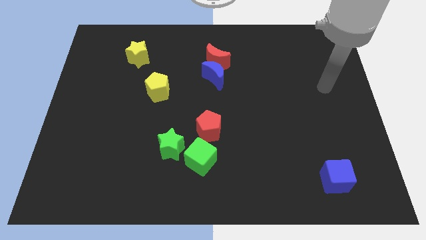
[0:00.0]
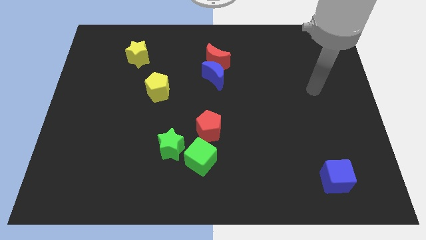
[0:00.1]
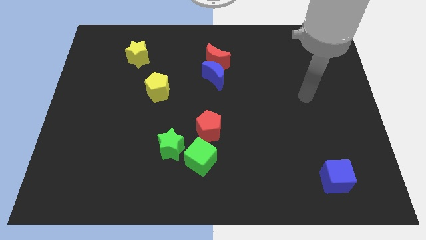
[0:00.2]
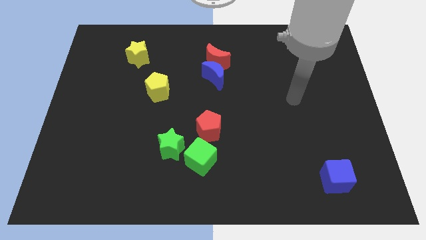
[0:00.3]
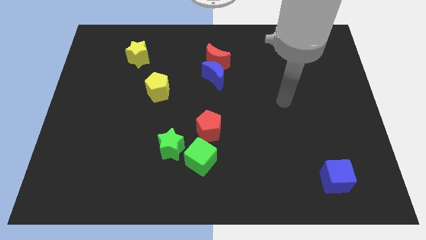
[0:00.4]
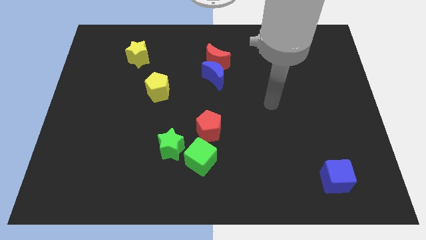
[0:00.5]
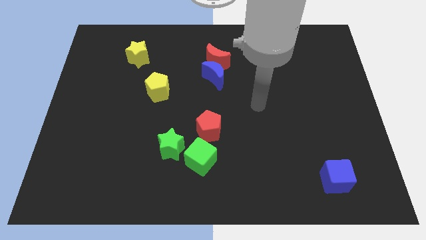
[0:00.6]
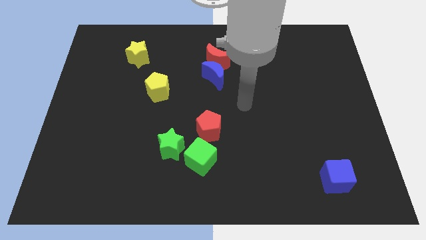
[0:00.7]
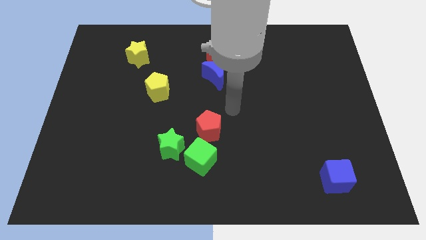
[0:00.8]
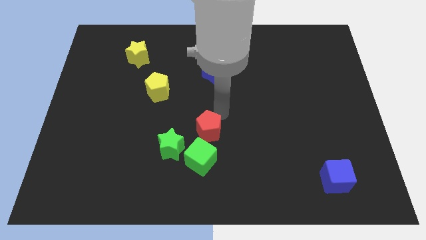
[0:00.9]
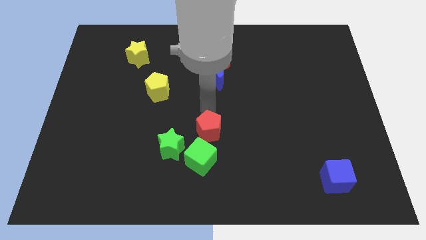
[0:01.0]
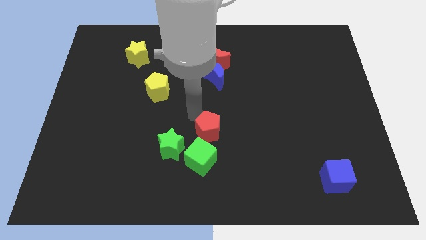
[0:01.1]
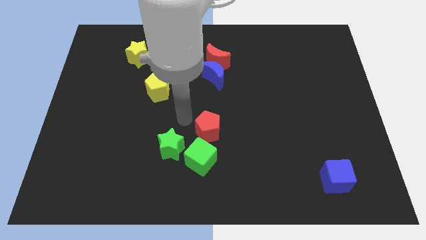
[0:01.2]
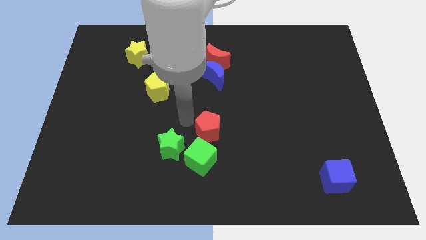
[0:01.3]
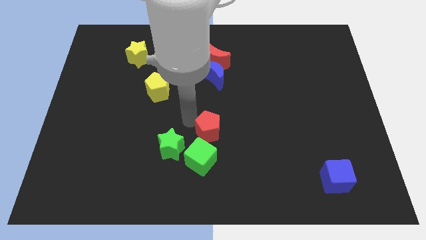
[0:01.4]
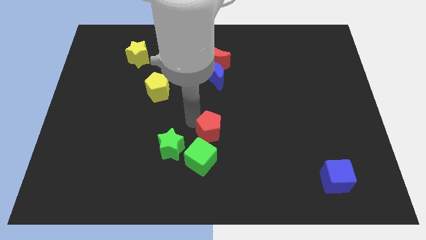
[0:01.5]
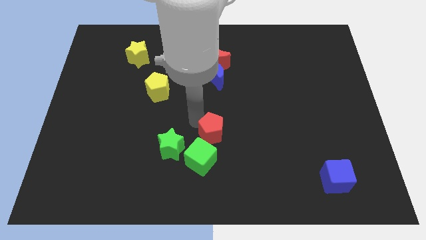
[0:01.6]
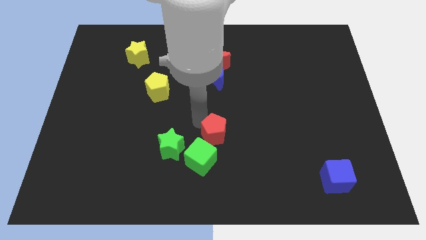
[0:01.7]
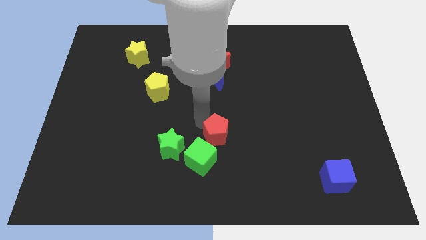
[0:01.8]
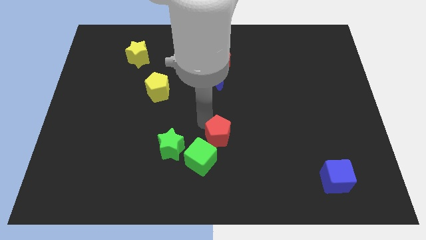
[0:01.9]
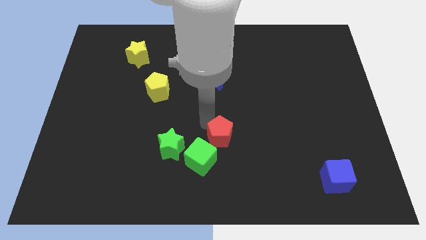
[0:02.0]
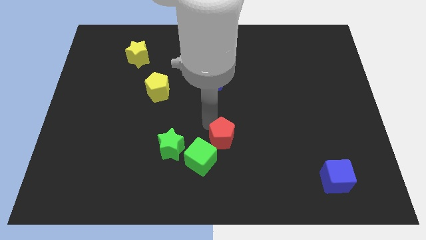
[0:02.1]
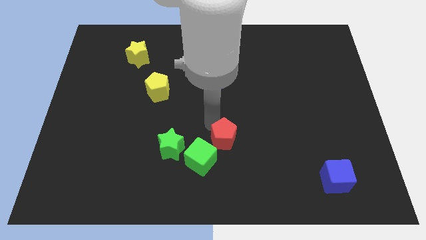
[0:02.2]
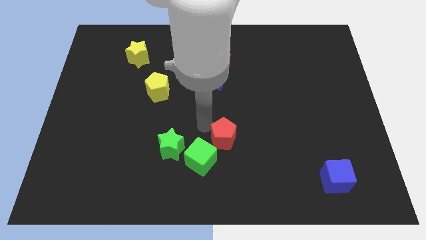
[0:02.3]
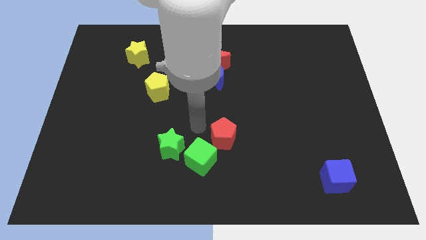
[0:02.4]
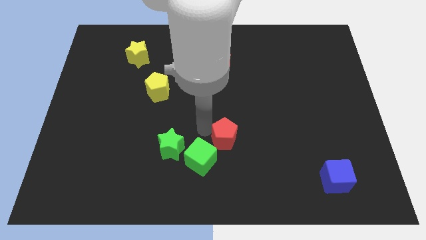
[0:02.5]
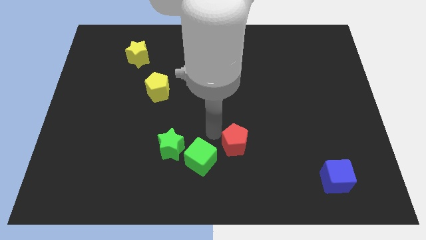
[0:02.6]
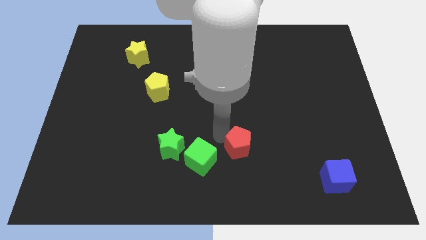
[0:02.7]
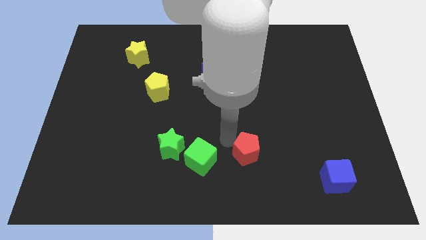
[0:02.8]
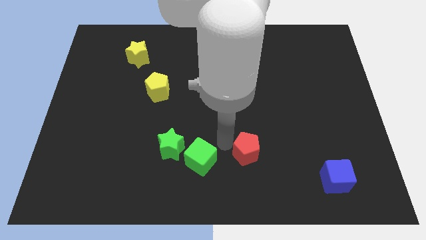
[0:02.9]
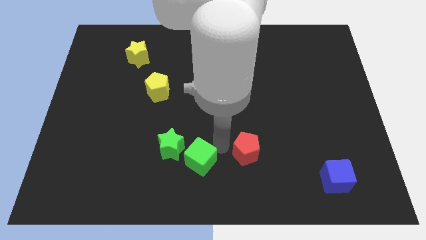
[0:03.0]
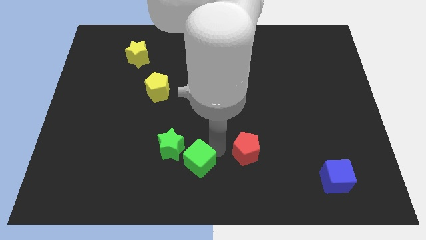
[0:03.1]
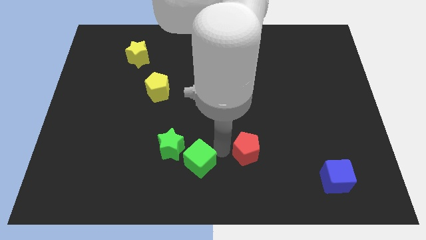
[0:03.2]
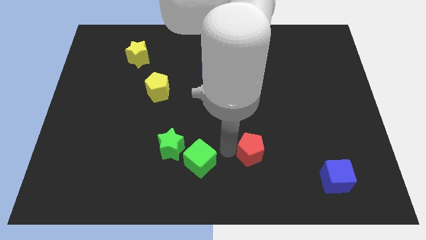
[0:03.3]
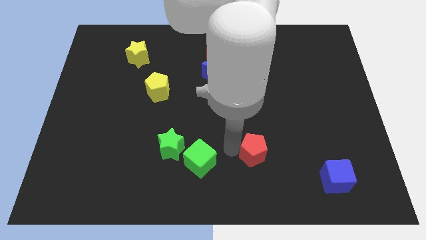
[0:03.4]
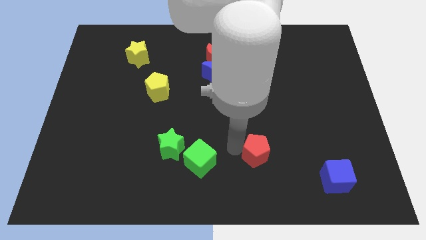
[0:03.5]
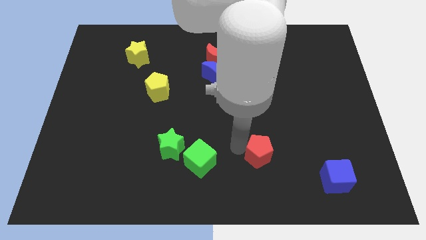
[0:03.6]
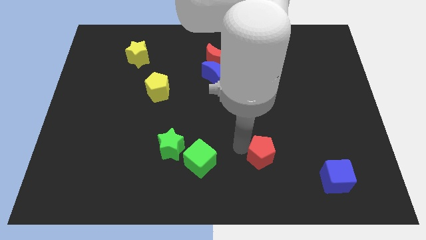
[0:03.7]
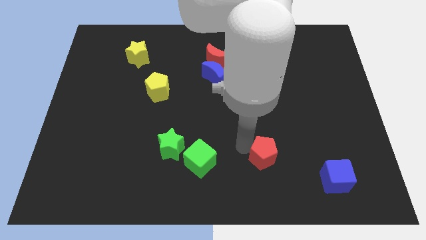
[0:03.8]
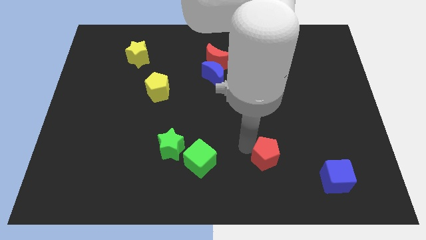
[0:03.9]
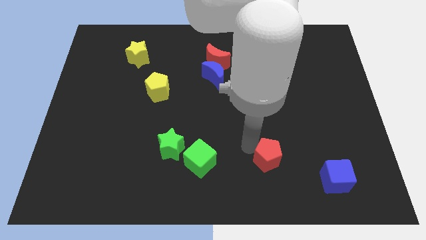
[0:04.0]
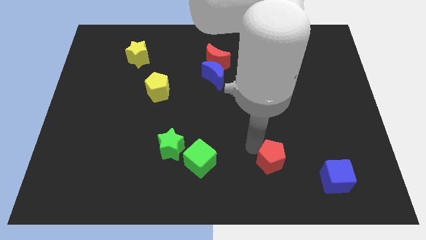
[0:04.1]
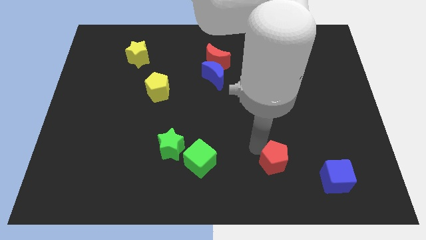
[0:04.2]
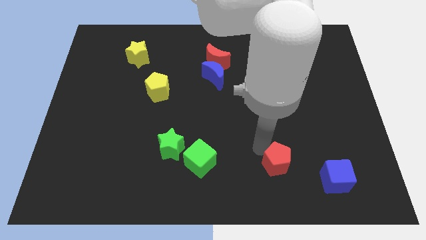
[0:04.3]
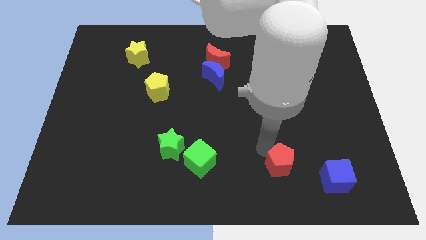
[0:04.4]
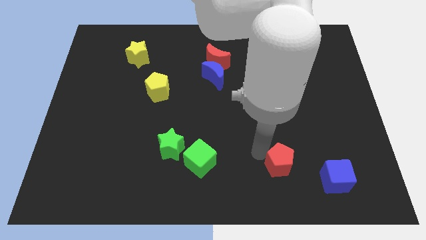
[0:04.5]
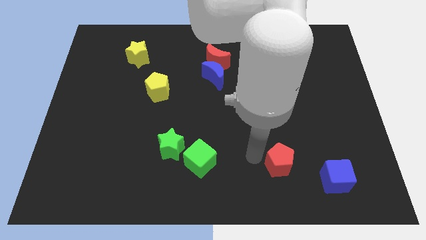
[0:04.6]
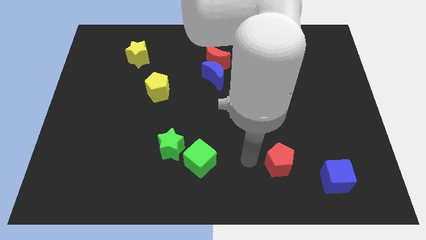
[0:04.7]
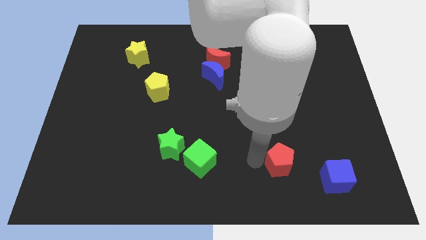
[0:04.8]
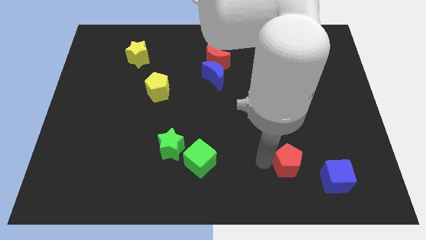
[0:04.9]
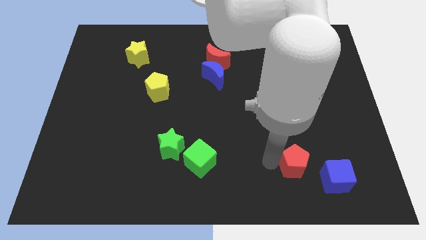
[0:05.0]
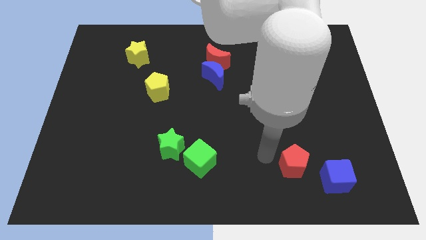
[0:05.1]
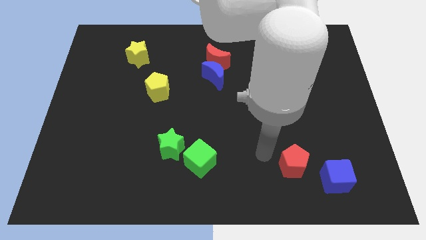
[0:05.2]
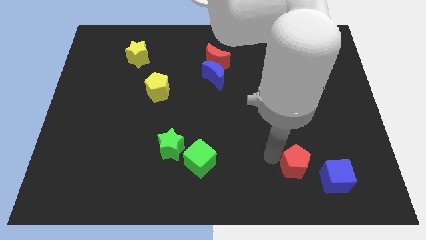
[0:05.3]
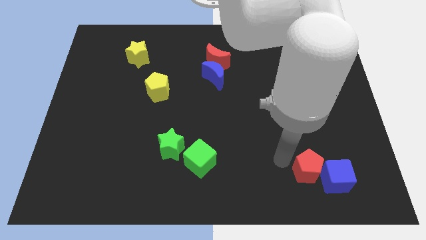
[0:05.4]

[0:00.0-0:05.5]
move the red pentagon next to the blue cube

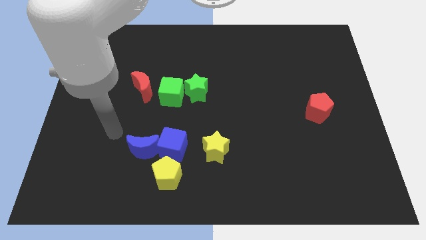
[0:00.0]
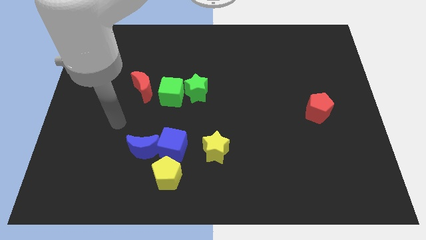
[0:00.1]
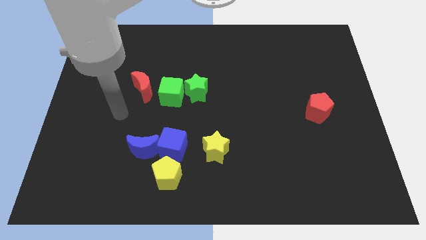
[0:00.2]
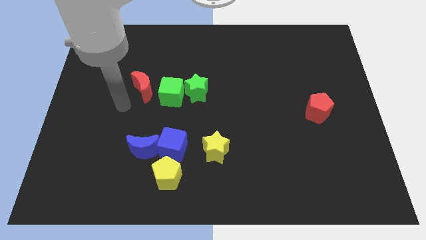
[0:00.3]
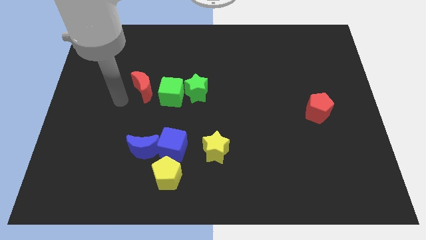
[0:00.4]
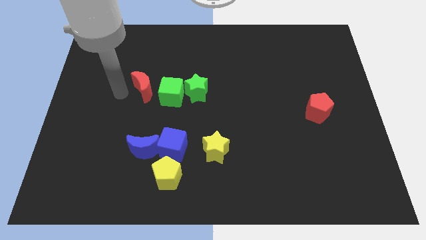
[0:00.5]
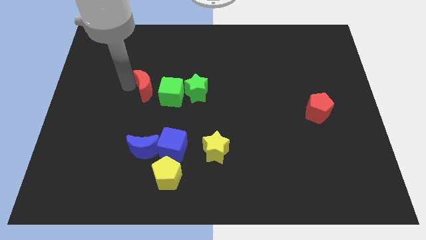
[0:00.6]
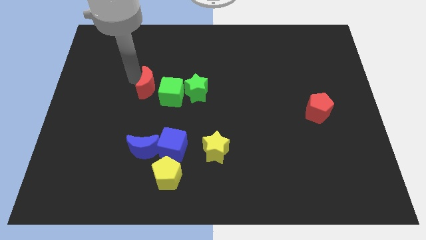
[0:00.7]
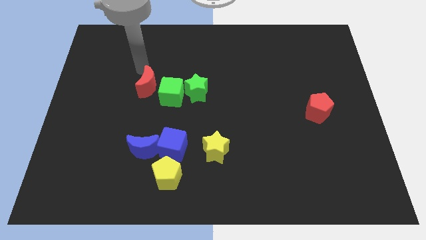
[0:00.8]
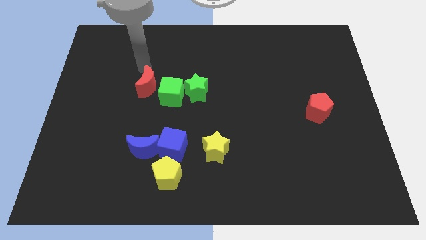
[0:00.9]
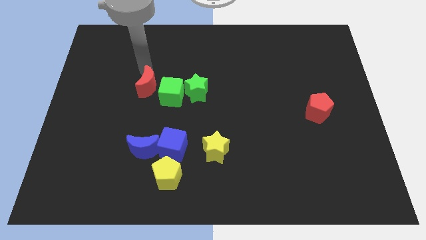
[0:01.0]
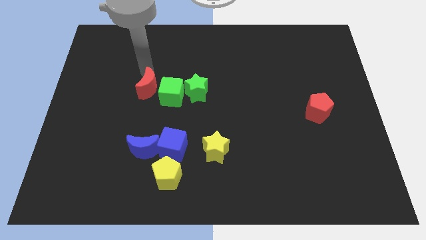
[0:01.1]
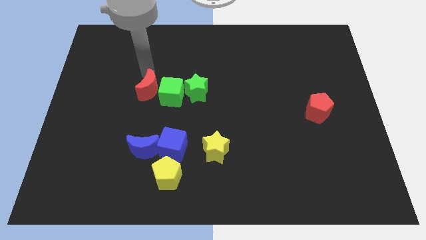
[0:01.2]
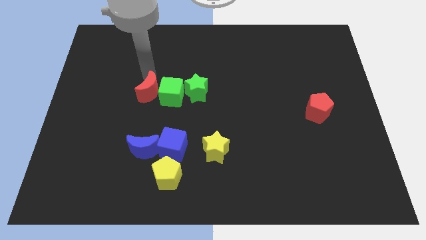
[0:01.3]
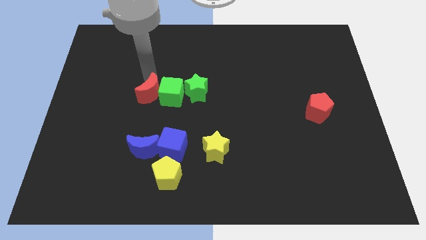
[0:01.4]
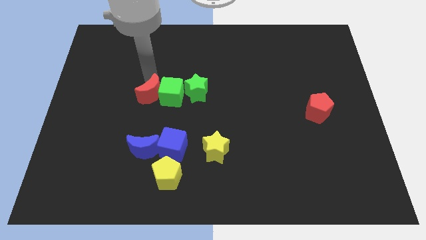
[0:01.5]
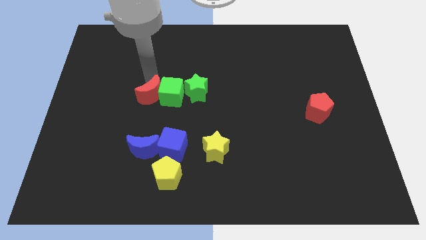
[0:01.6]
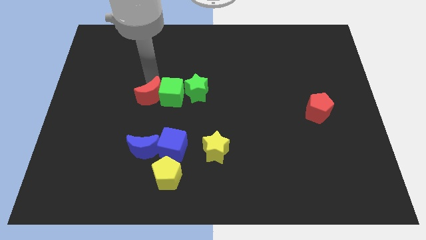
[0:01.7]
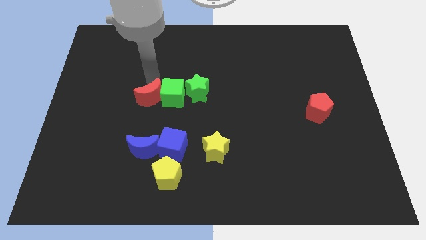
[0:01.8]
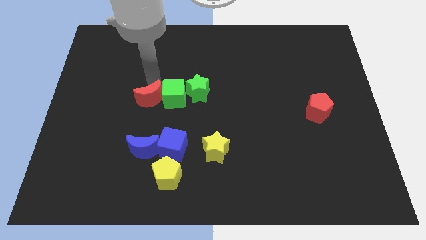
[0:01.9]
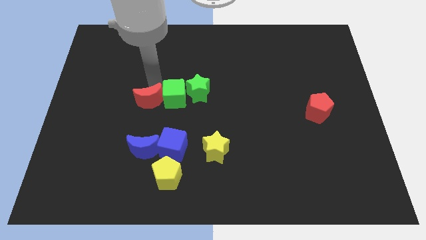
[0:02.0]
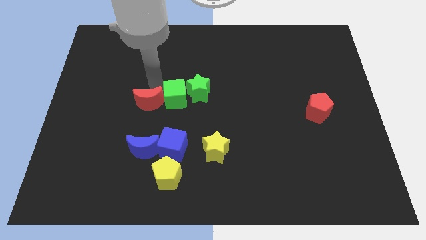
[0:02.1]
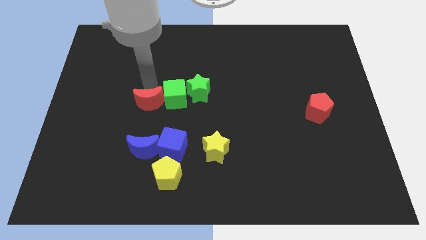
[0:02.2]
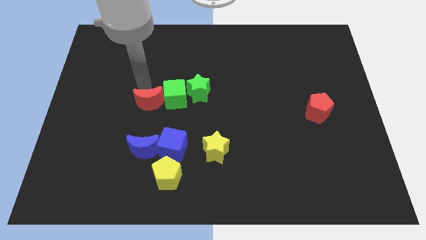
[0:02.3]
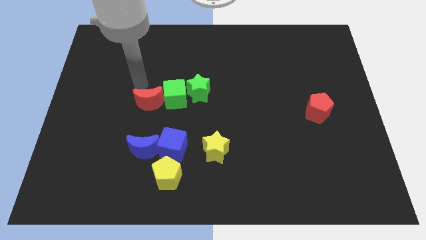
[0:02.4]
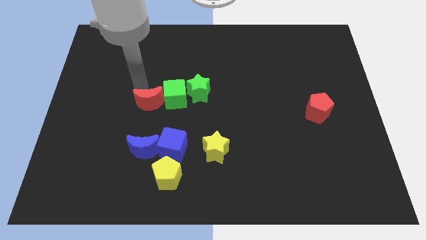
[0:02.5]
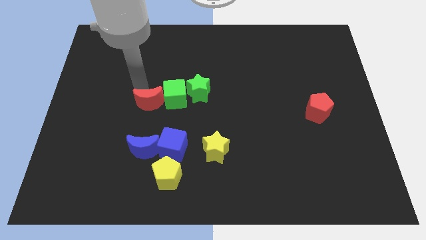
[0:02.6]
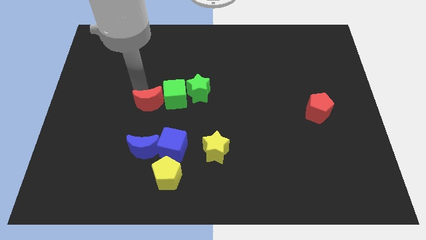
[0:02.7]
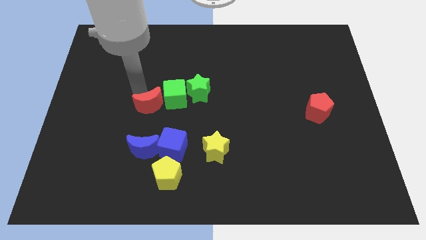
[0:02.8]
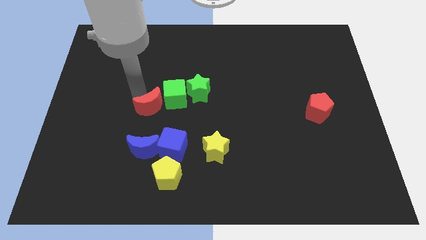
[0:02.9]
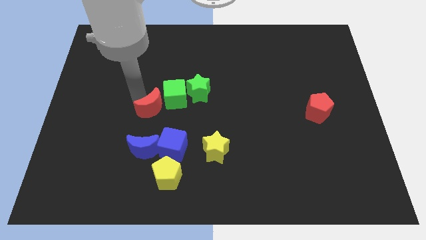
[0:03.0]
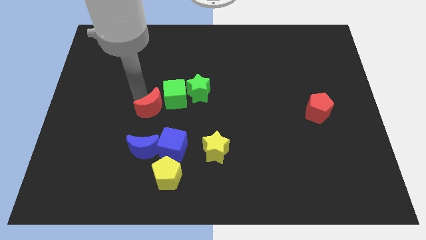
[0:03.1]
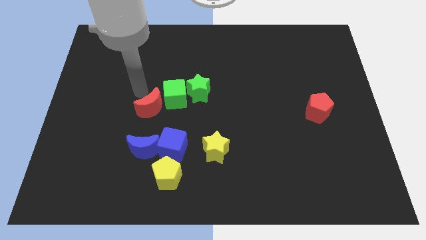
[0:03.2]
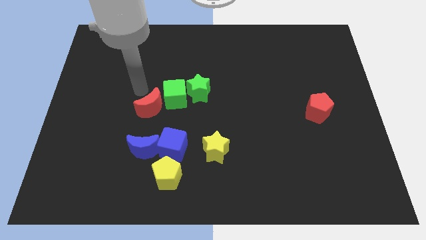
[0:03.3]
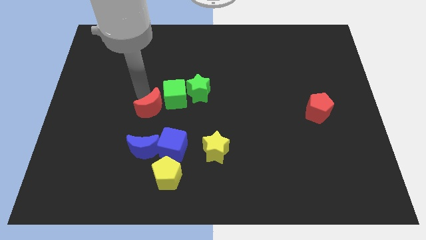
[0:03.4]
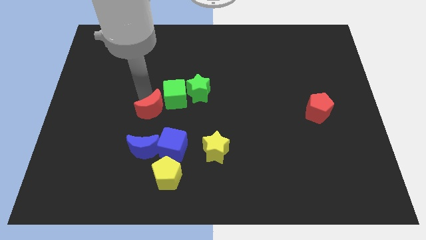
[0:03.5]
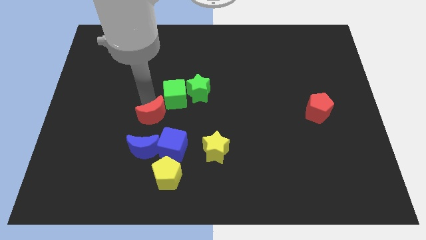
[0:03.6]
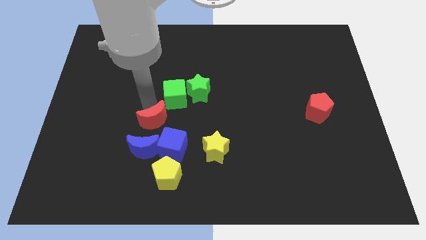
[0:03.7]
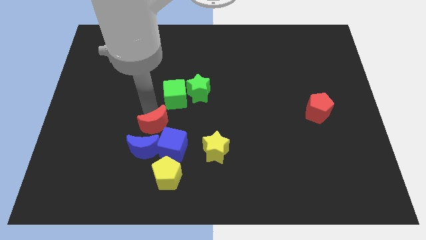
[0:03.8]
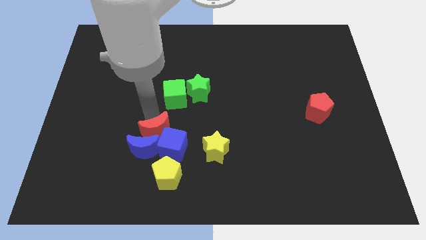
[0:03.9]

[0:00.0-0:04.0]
move the red moon towards the blue cube
